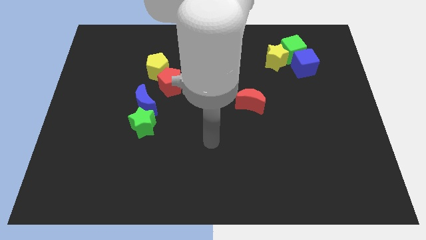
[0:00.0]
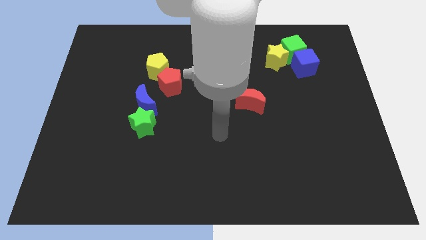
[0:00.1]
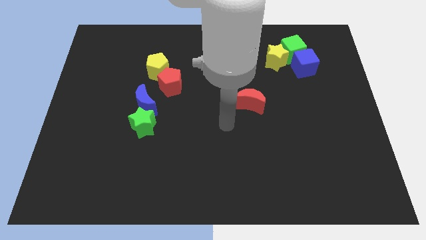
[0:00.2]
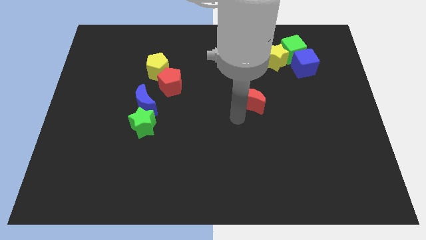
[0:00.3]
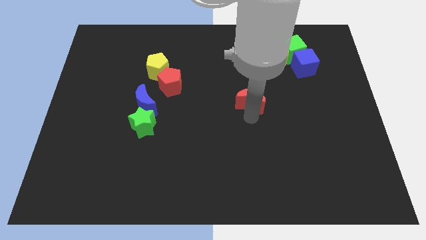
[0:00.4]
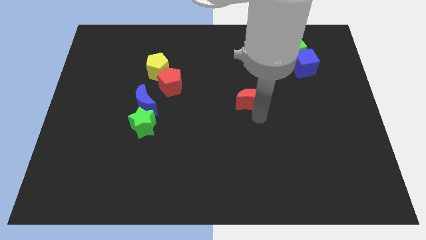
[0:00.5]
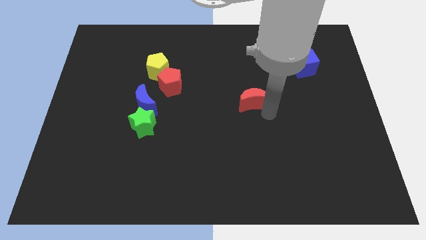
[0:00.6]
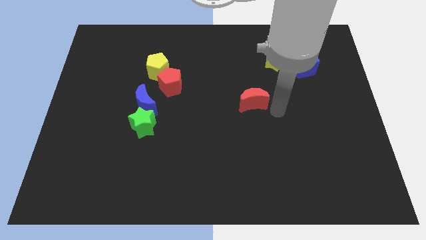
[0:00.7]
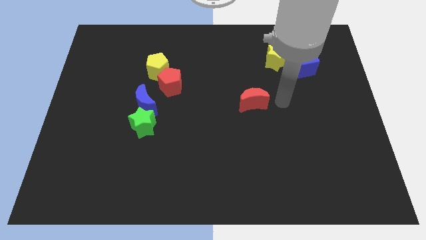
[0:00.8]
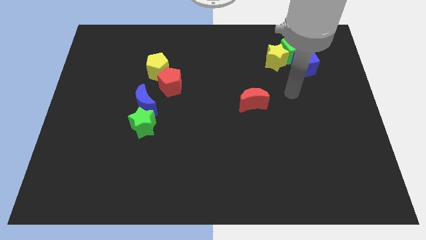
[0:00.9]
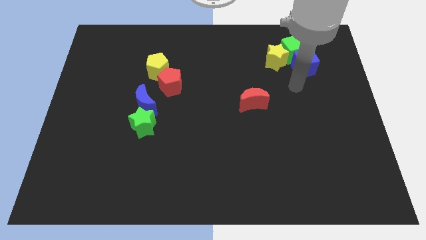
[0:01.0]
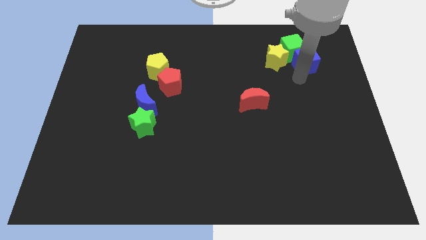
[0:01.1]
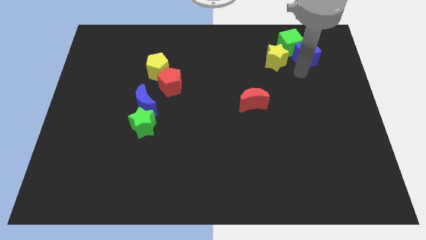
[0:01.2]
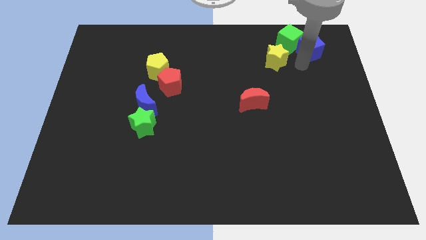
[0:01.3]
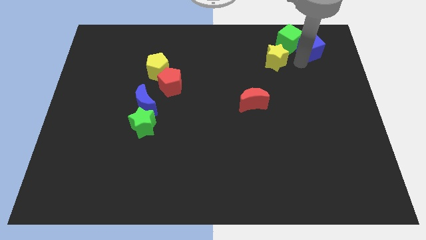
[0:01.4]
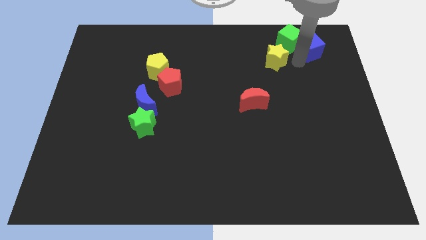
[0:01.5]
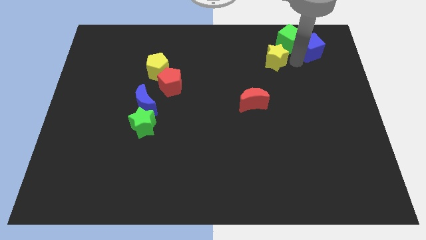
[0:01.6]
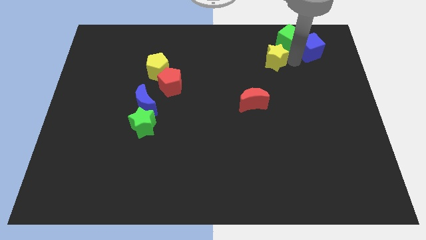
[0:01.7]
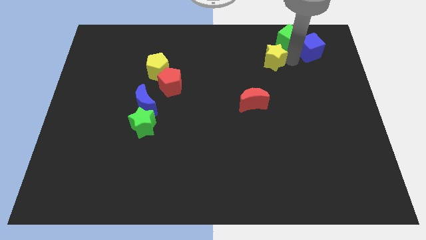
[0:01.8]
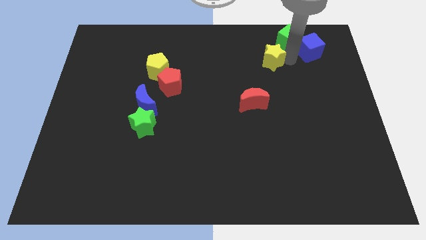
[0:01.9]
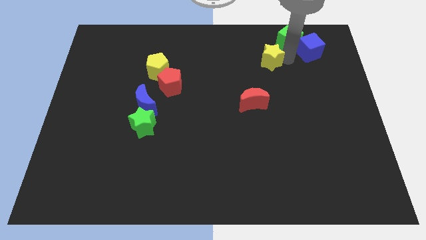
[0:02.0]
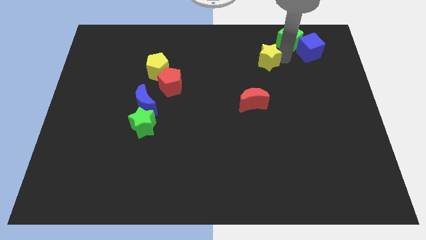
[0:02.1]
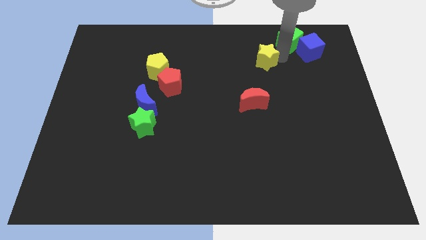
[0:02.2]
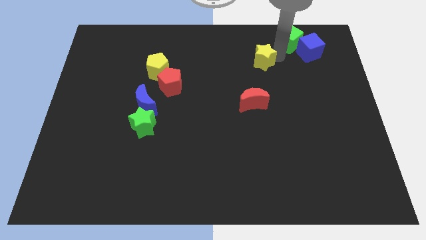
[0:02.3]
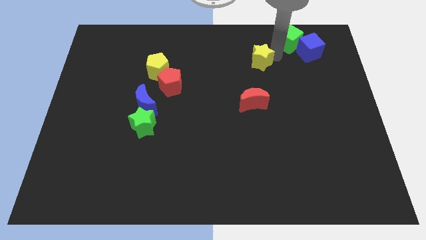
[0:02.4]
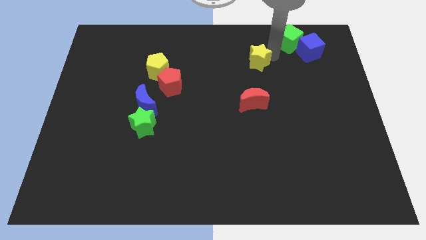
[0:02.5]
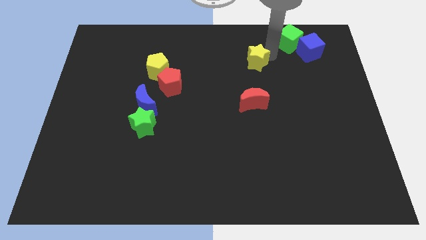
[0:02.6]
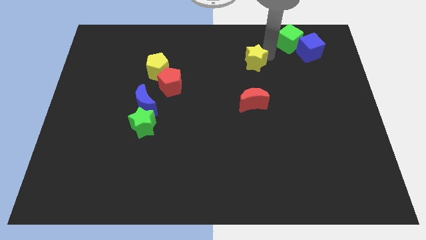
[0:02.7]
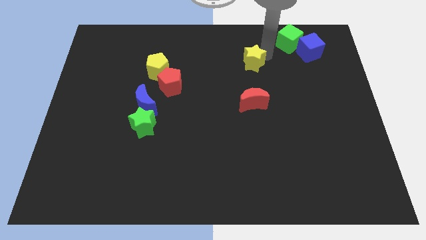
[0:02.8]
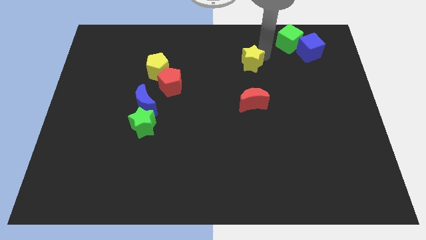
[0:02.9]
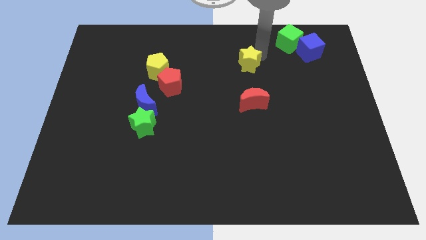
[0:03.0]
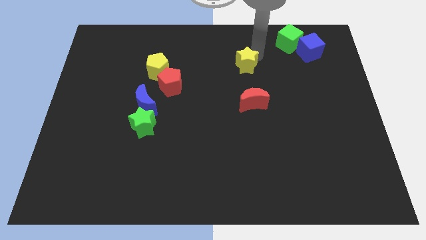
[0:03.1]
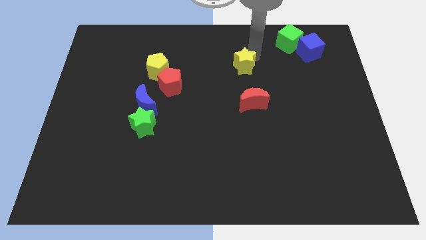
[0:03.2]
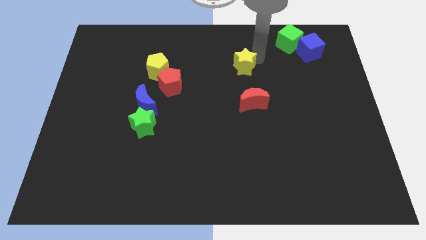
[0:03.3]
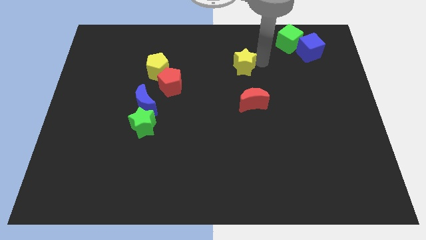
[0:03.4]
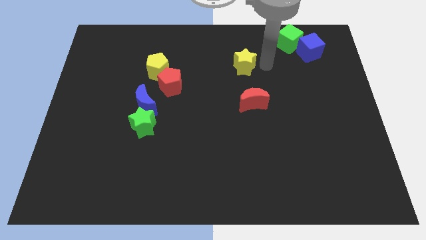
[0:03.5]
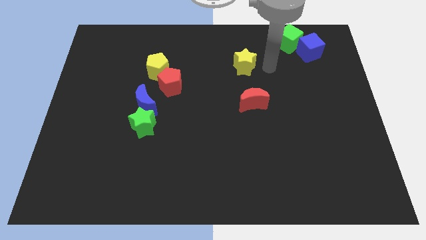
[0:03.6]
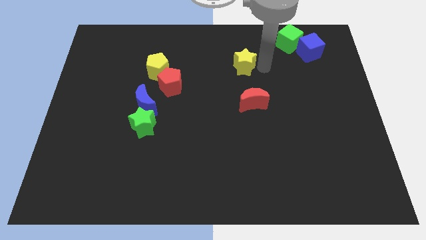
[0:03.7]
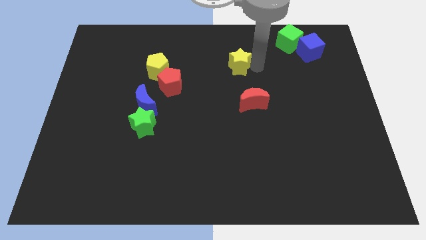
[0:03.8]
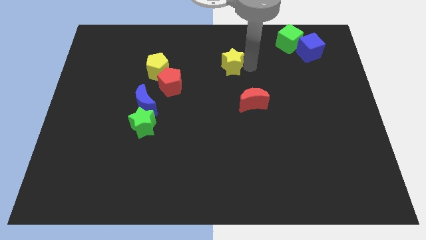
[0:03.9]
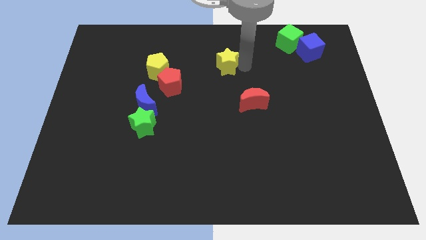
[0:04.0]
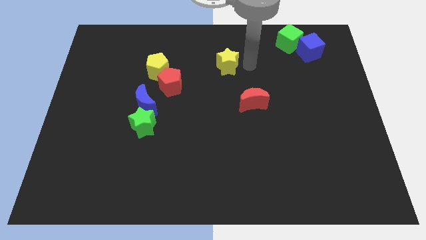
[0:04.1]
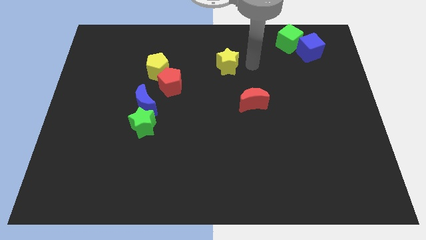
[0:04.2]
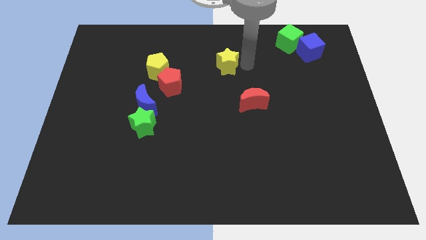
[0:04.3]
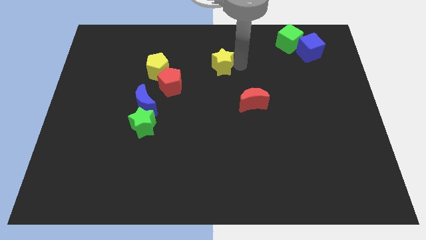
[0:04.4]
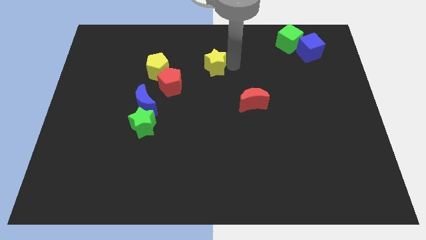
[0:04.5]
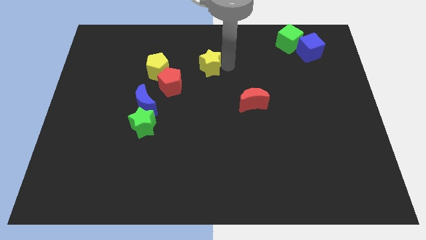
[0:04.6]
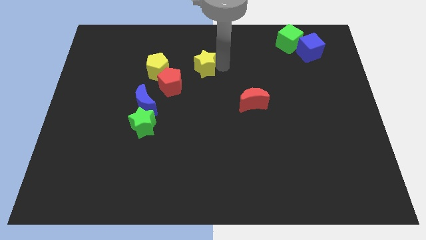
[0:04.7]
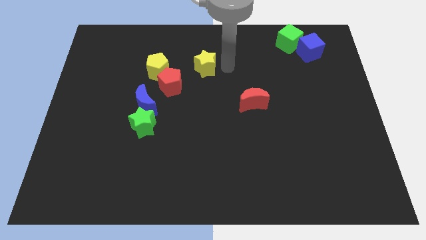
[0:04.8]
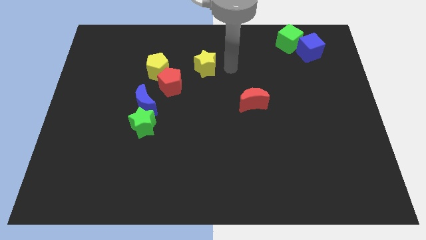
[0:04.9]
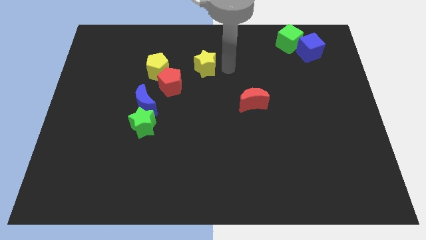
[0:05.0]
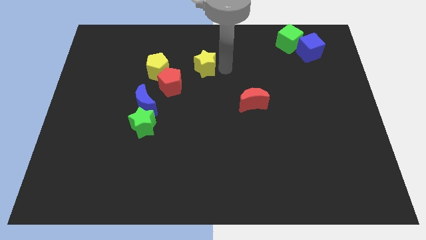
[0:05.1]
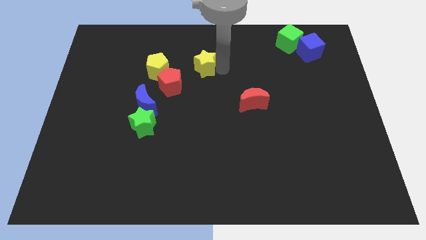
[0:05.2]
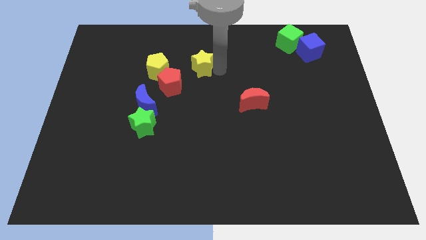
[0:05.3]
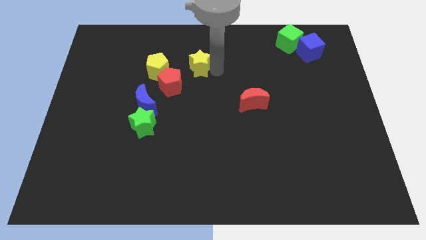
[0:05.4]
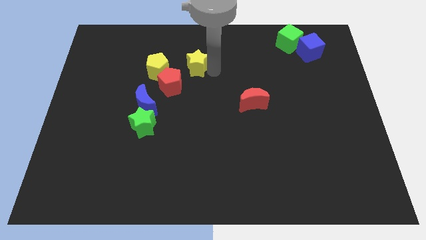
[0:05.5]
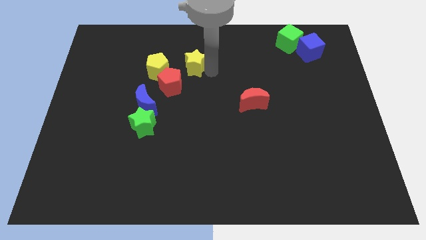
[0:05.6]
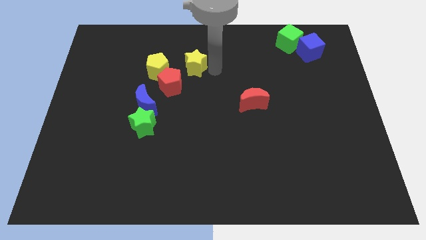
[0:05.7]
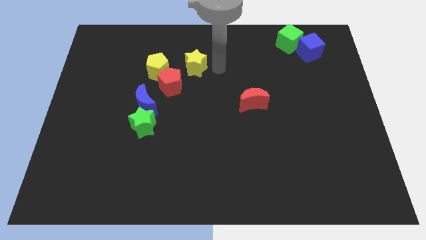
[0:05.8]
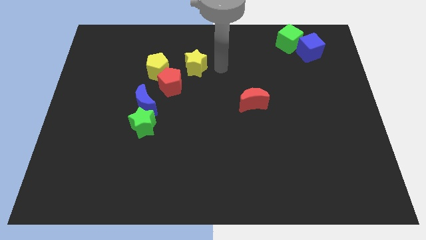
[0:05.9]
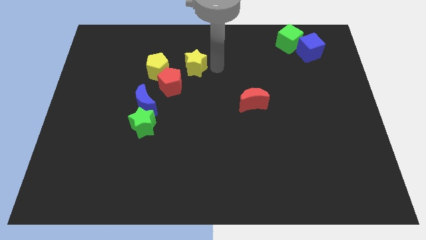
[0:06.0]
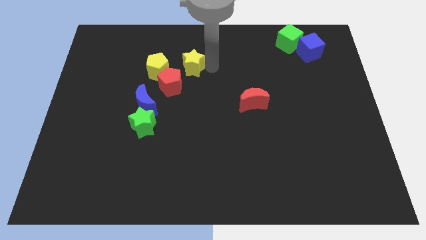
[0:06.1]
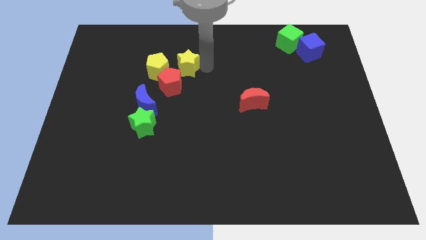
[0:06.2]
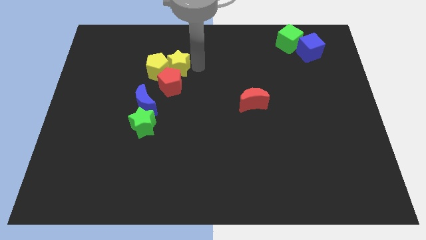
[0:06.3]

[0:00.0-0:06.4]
push the yellow star towards the yellow pentagon

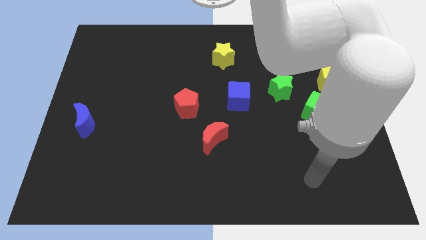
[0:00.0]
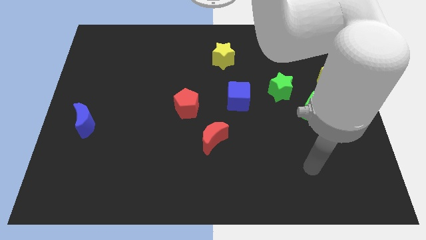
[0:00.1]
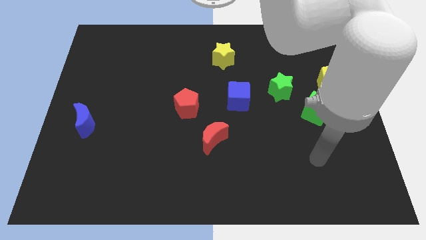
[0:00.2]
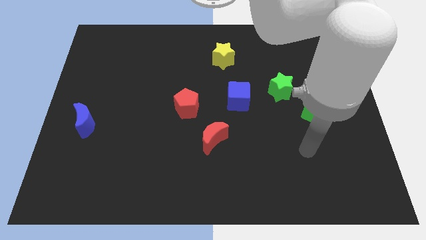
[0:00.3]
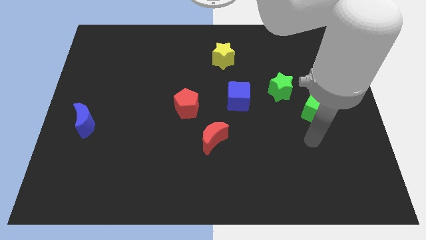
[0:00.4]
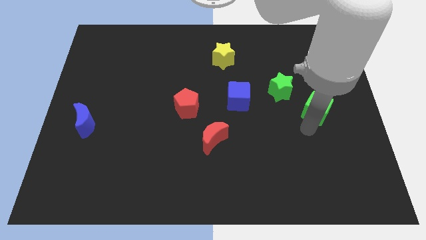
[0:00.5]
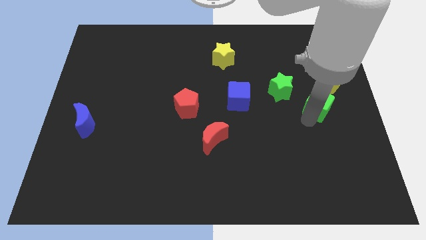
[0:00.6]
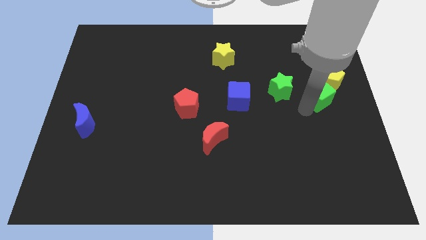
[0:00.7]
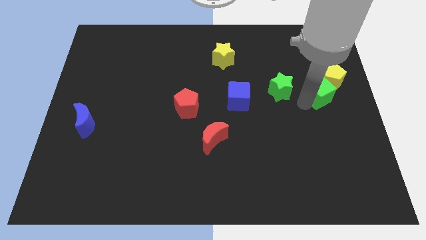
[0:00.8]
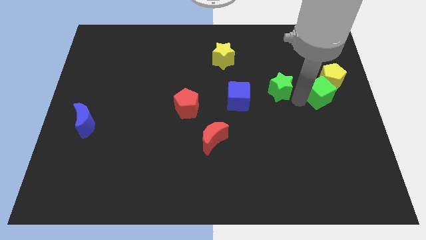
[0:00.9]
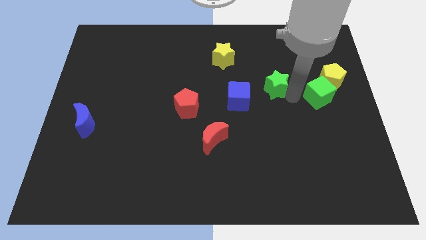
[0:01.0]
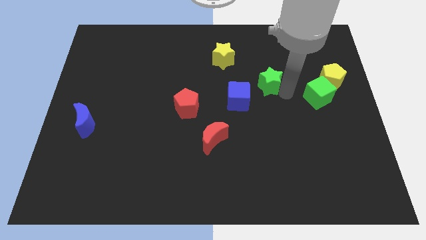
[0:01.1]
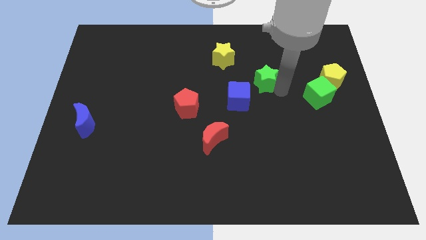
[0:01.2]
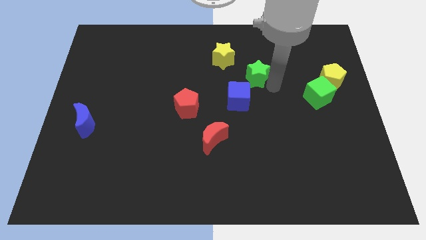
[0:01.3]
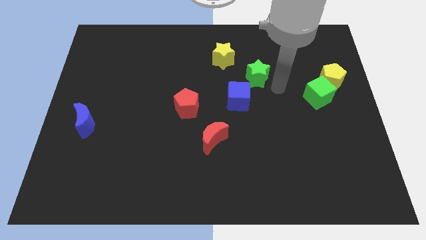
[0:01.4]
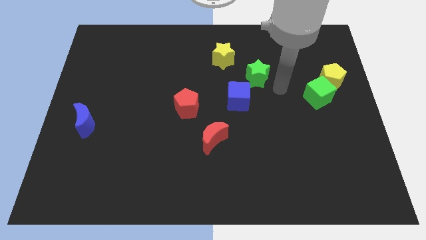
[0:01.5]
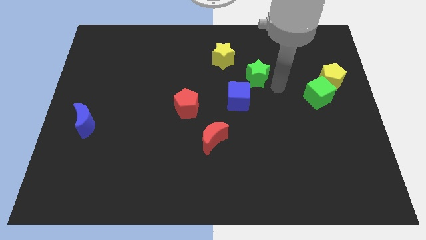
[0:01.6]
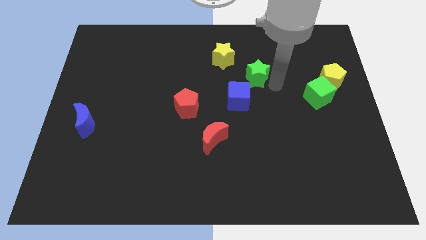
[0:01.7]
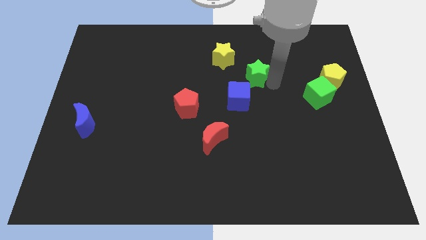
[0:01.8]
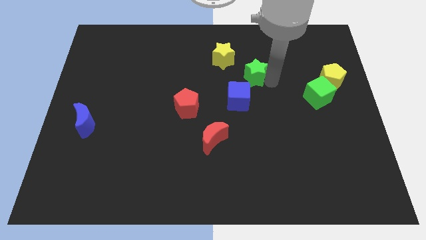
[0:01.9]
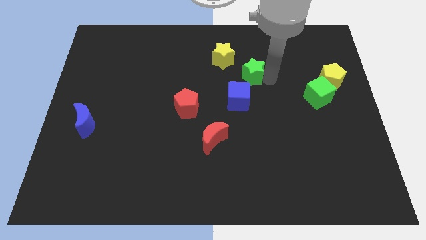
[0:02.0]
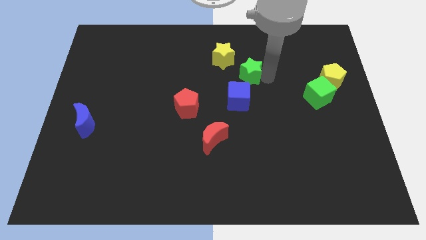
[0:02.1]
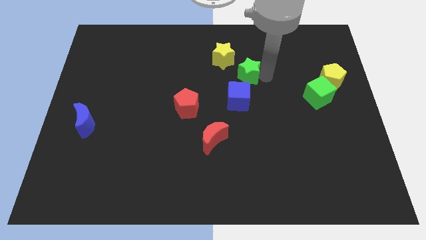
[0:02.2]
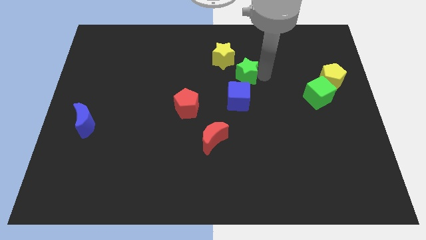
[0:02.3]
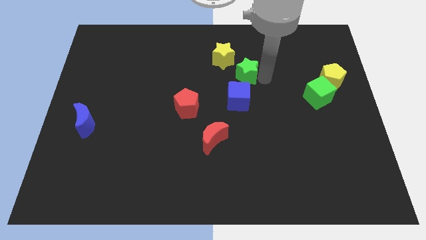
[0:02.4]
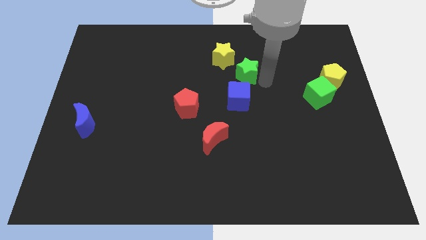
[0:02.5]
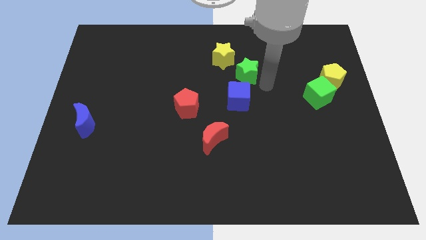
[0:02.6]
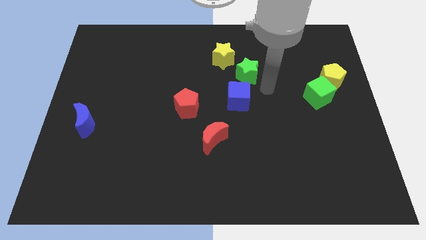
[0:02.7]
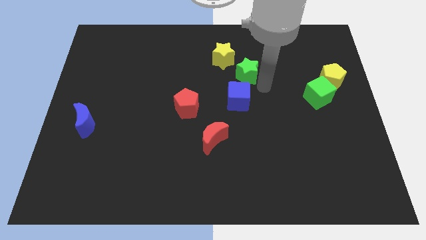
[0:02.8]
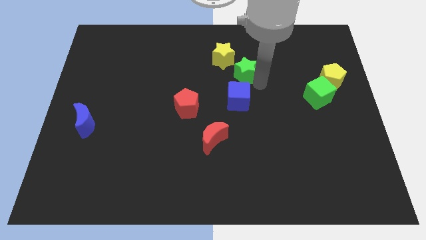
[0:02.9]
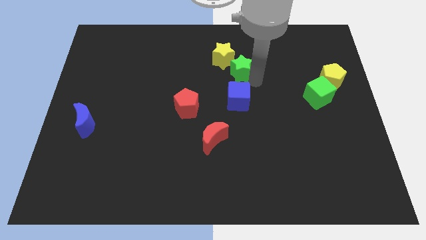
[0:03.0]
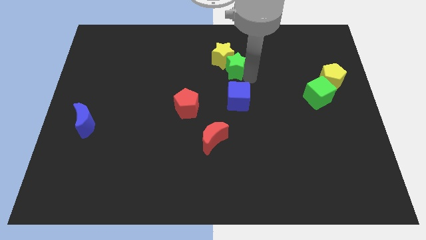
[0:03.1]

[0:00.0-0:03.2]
put the green star towards the yellow star
